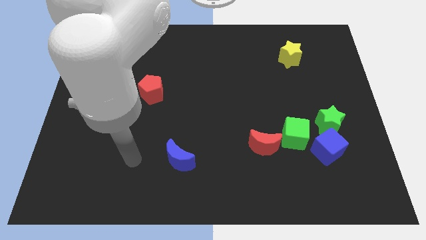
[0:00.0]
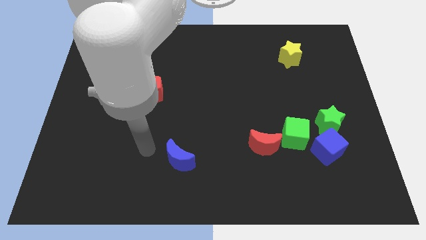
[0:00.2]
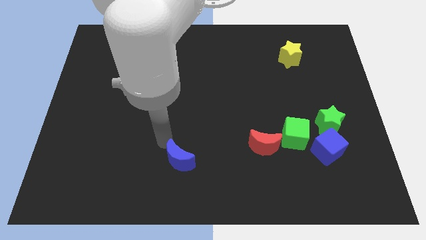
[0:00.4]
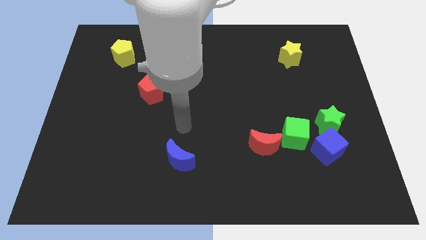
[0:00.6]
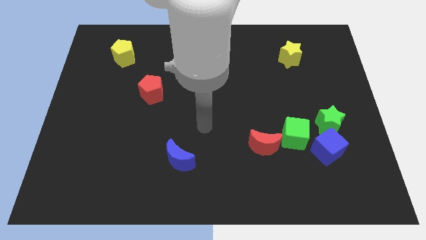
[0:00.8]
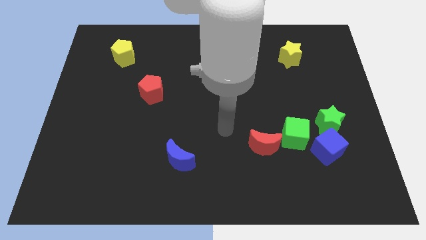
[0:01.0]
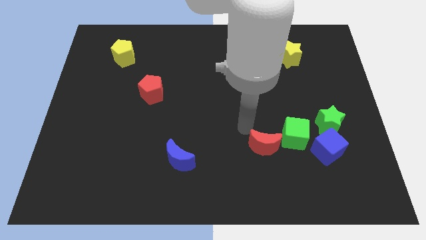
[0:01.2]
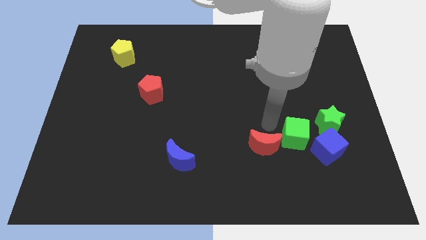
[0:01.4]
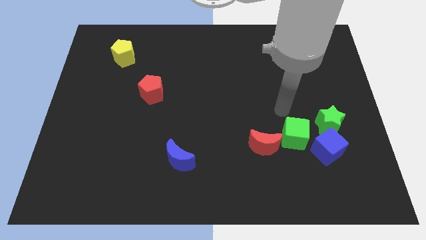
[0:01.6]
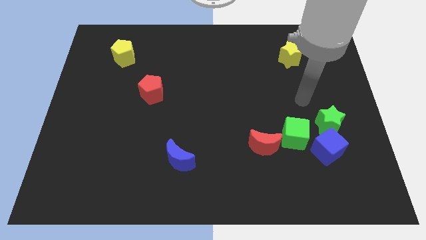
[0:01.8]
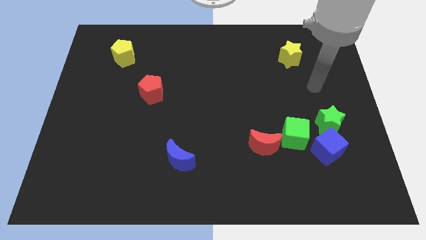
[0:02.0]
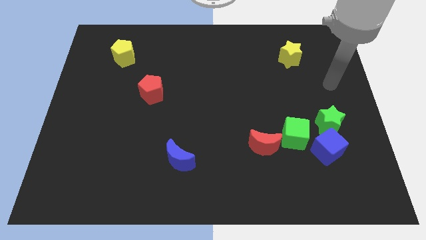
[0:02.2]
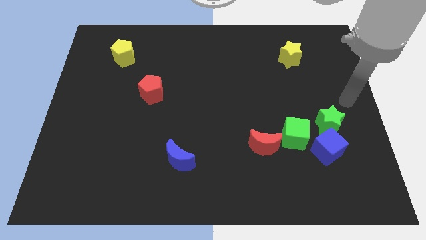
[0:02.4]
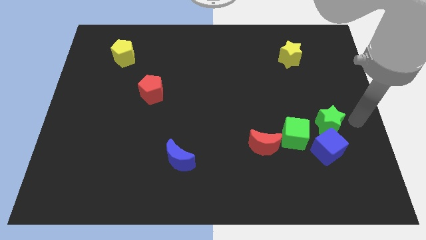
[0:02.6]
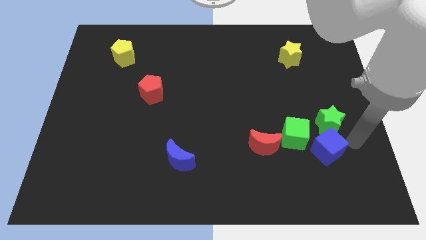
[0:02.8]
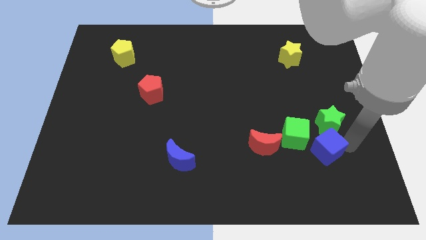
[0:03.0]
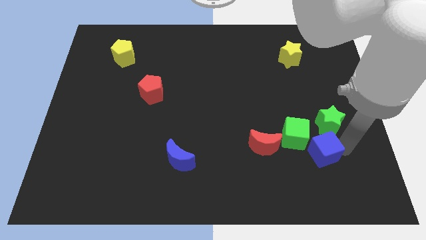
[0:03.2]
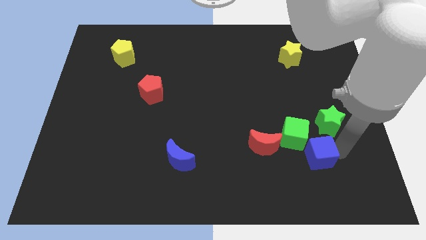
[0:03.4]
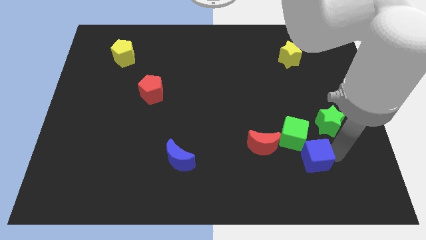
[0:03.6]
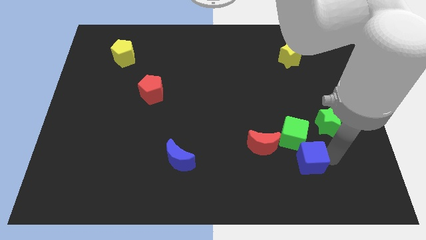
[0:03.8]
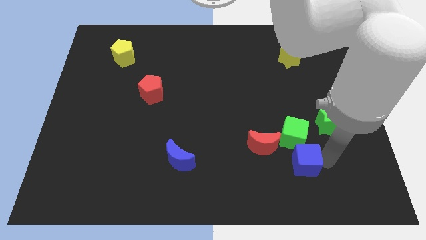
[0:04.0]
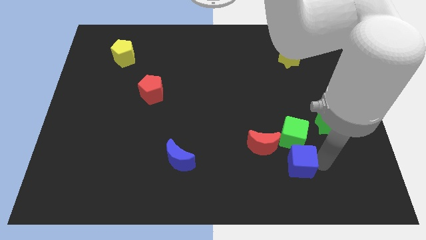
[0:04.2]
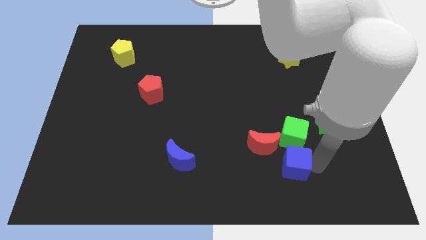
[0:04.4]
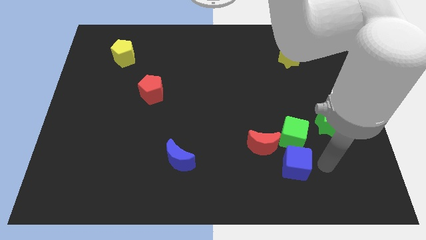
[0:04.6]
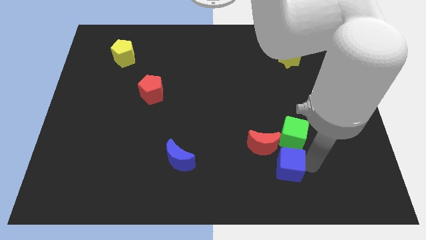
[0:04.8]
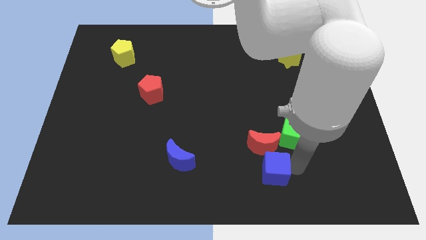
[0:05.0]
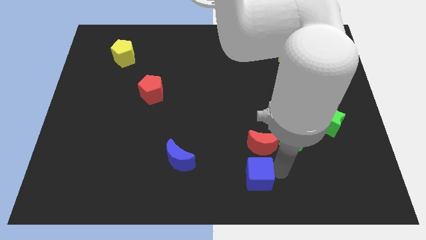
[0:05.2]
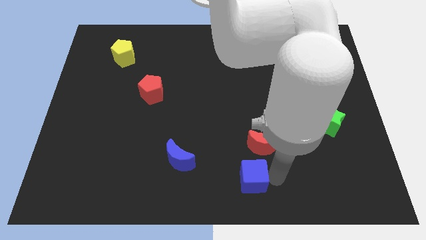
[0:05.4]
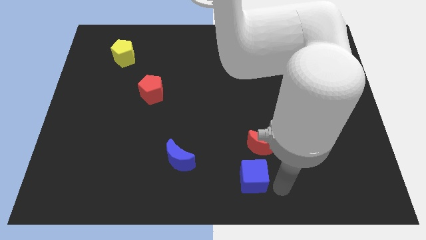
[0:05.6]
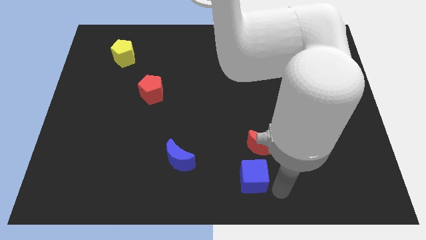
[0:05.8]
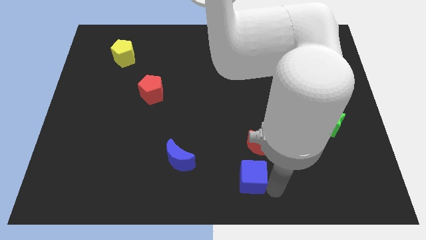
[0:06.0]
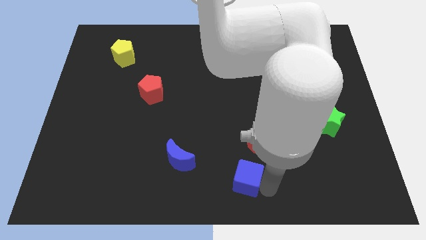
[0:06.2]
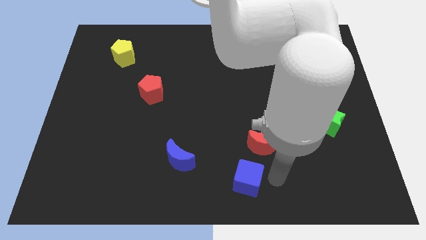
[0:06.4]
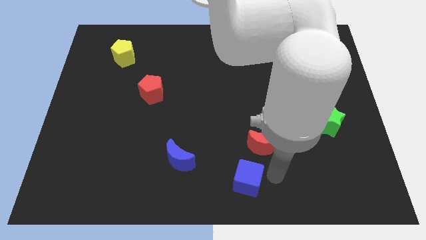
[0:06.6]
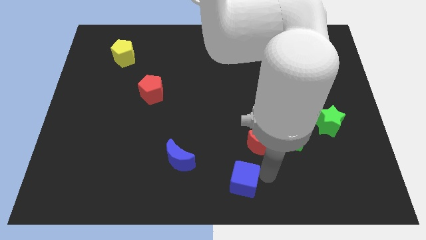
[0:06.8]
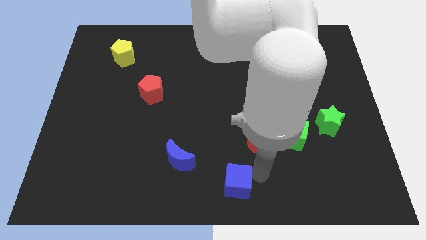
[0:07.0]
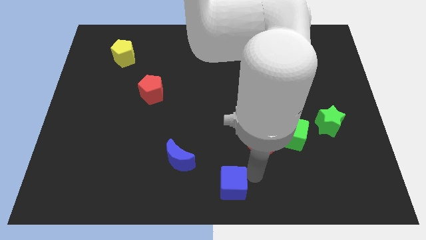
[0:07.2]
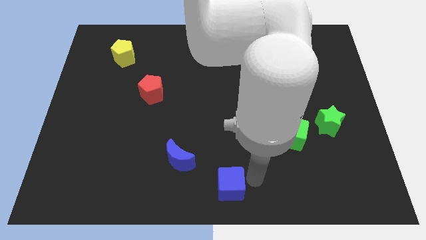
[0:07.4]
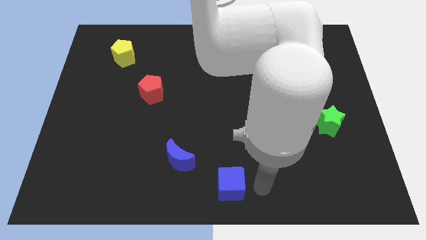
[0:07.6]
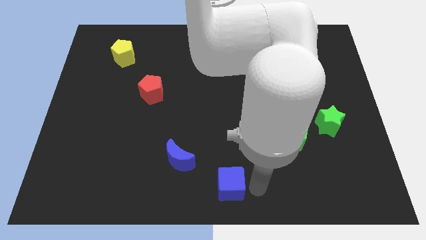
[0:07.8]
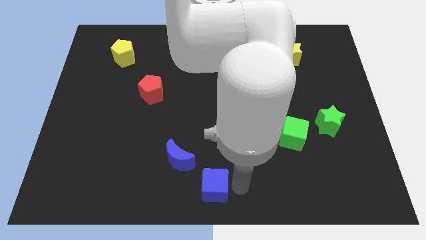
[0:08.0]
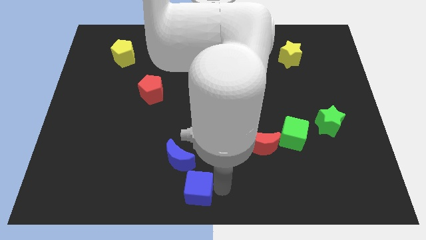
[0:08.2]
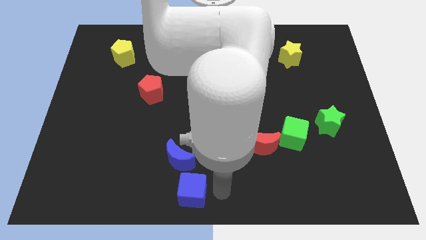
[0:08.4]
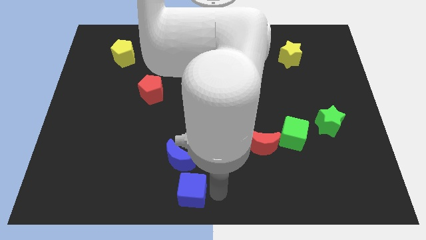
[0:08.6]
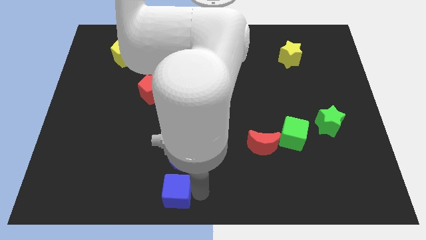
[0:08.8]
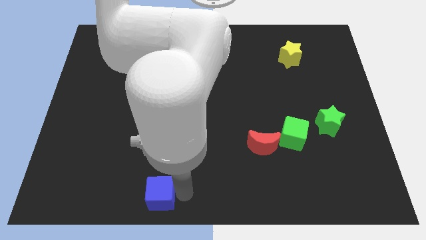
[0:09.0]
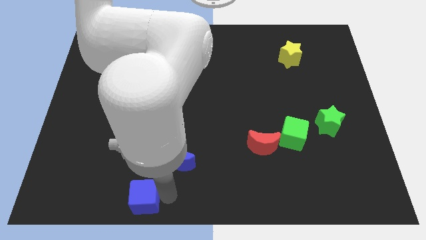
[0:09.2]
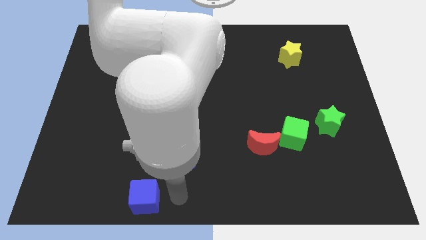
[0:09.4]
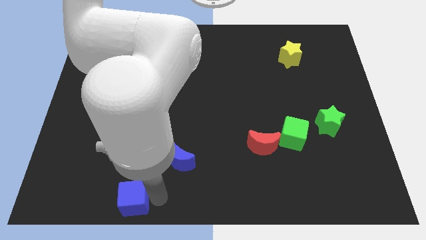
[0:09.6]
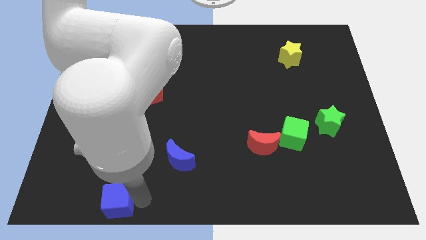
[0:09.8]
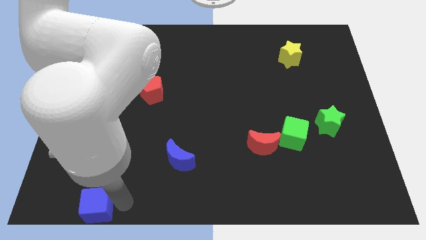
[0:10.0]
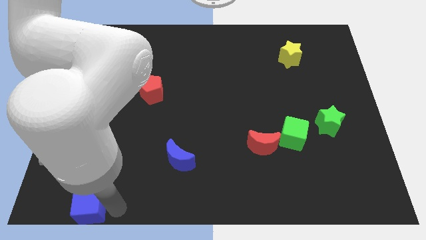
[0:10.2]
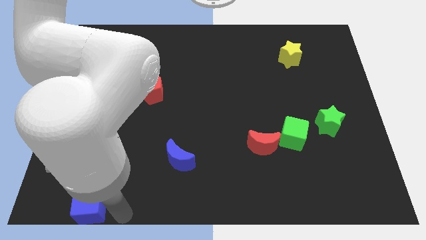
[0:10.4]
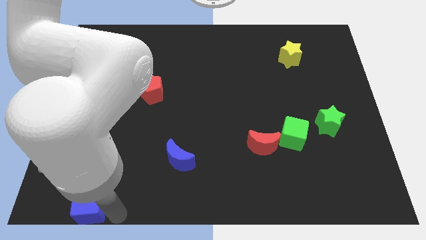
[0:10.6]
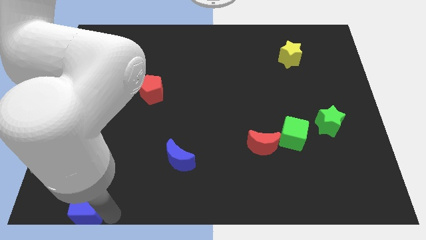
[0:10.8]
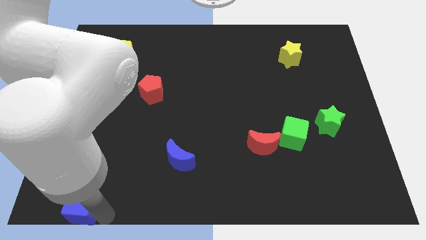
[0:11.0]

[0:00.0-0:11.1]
push the blue cube to the lower left corner
